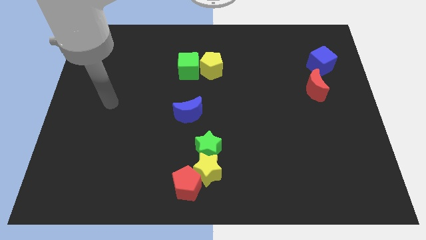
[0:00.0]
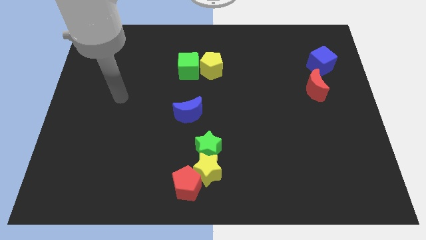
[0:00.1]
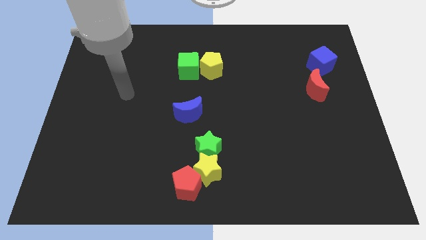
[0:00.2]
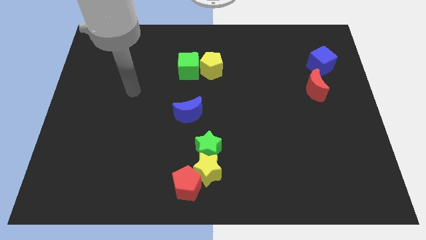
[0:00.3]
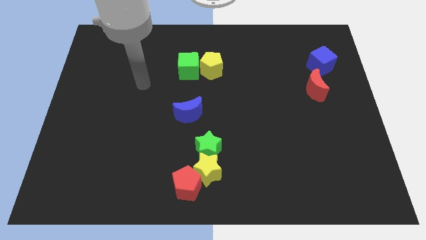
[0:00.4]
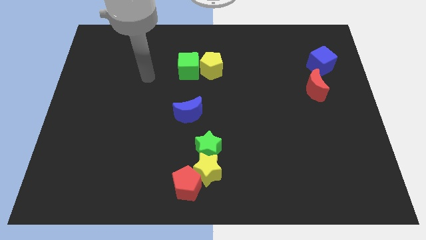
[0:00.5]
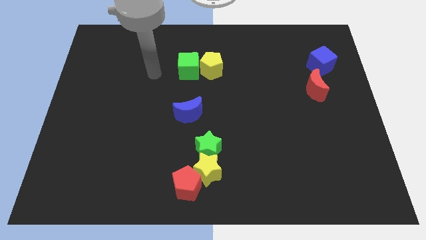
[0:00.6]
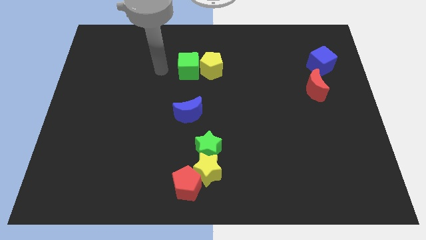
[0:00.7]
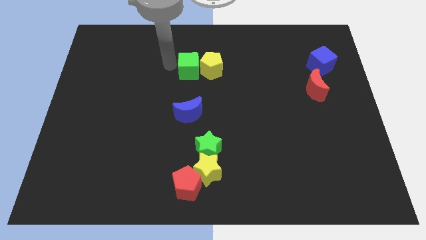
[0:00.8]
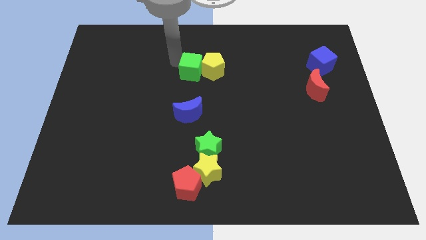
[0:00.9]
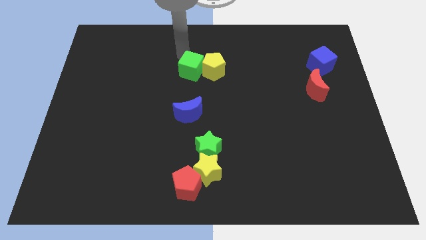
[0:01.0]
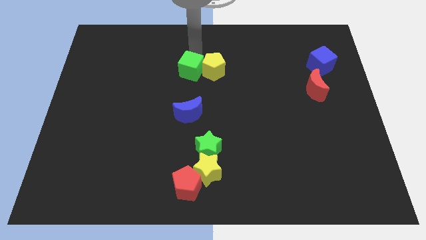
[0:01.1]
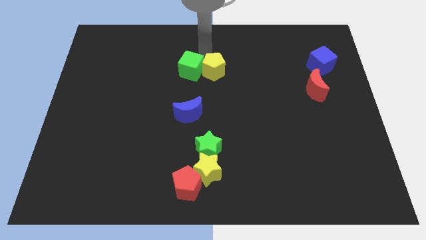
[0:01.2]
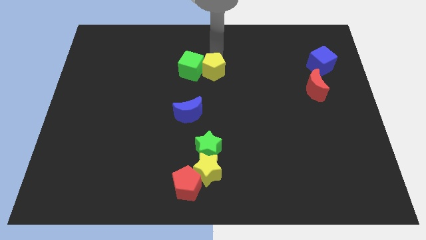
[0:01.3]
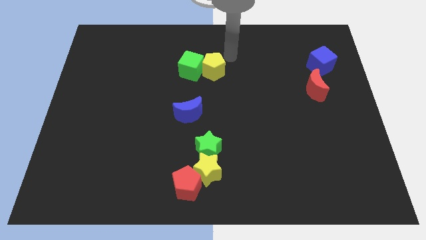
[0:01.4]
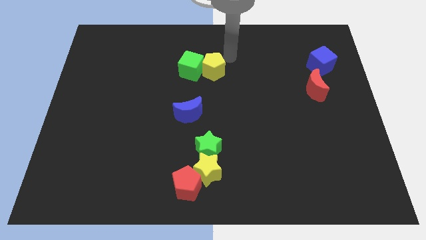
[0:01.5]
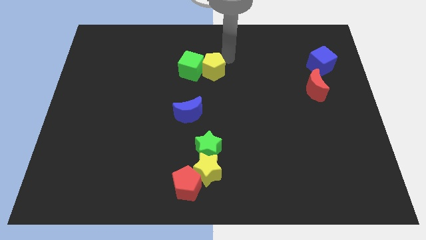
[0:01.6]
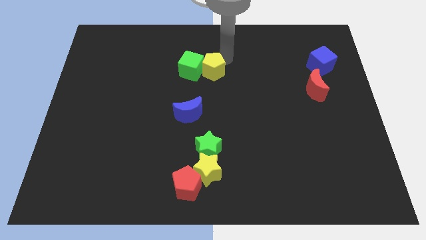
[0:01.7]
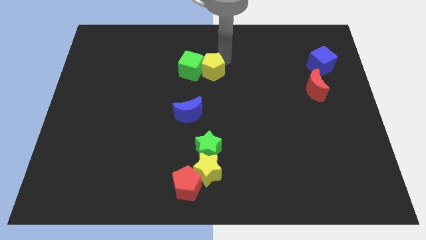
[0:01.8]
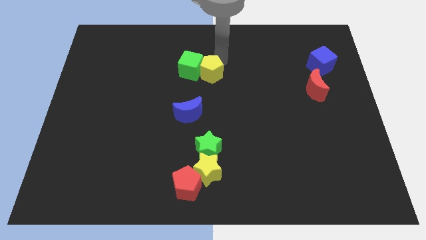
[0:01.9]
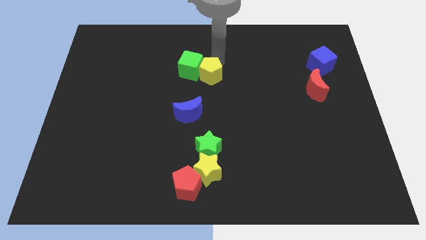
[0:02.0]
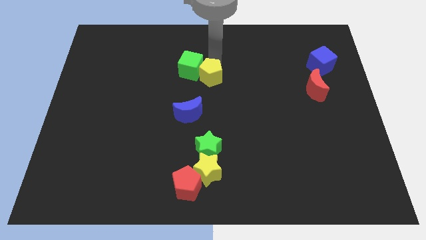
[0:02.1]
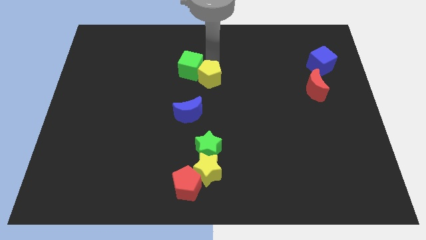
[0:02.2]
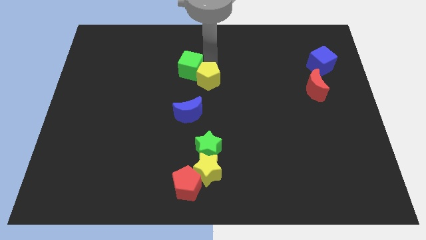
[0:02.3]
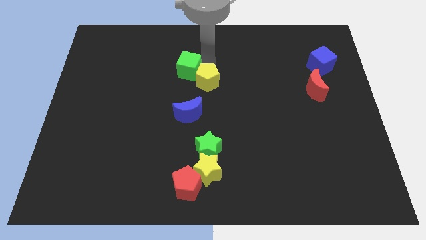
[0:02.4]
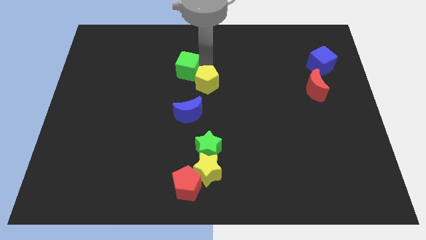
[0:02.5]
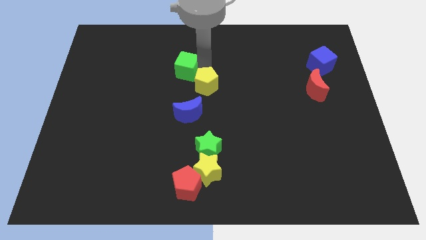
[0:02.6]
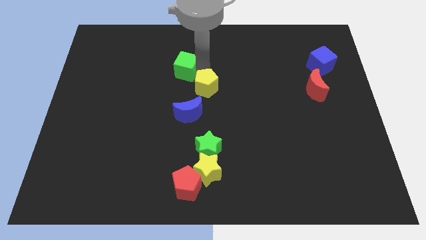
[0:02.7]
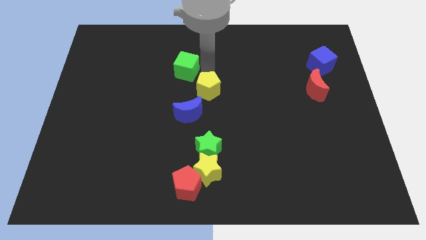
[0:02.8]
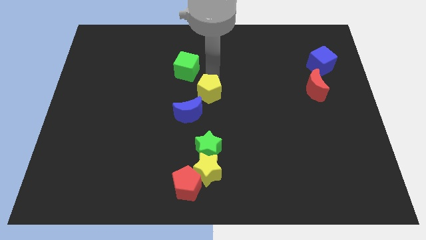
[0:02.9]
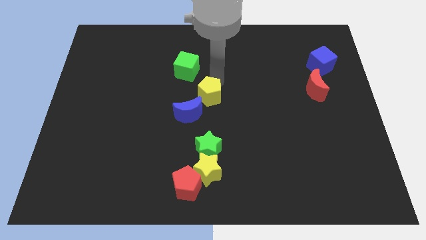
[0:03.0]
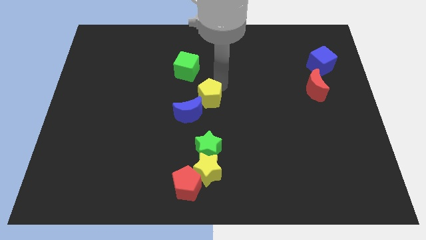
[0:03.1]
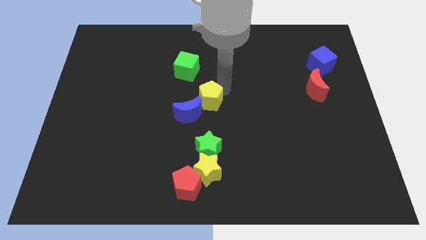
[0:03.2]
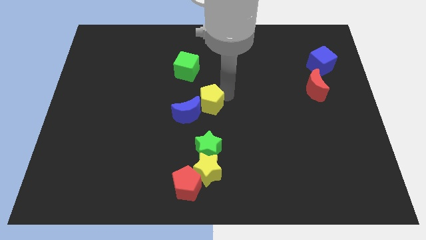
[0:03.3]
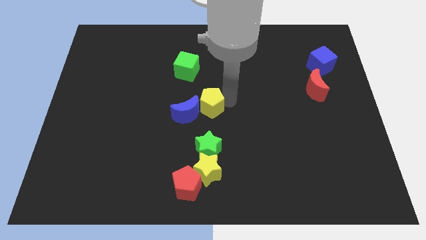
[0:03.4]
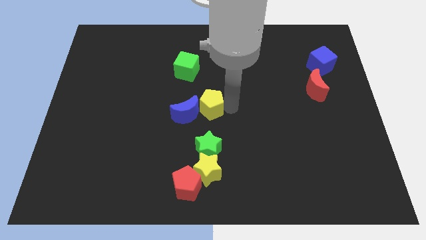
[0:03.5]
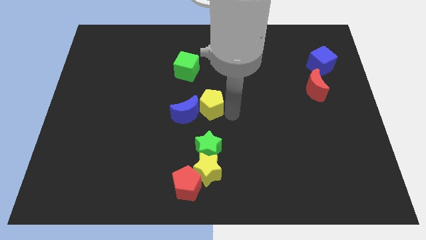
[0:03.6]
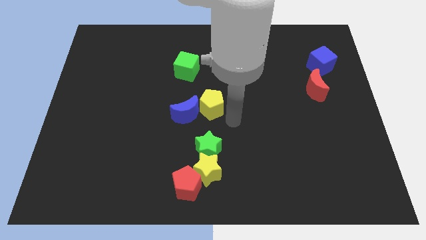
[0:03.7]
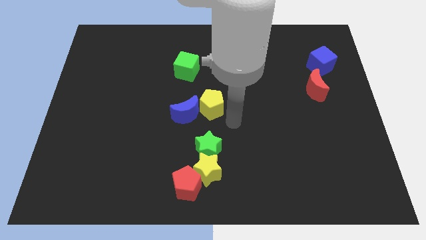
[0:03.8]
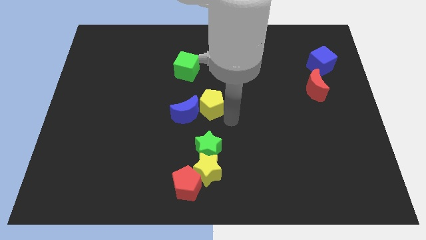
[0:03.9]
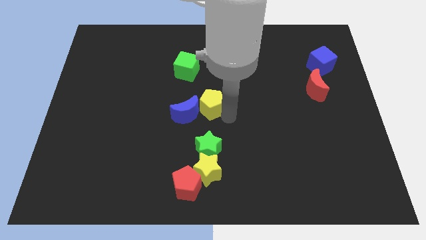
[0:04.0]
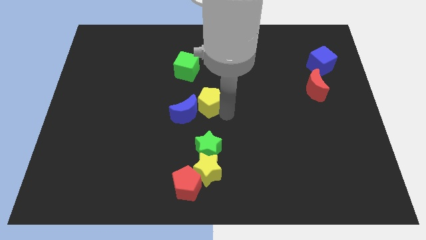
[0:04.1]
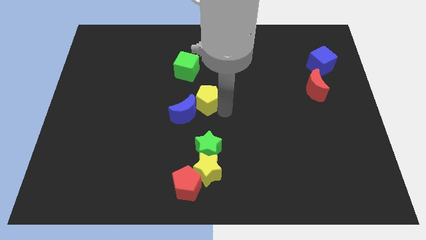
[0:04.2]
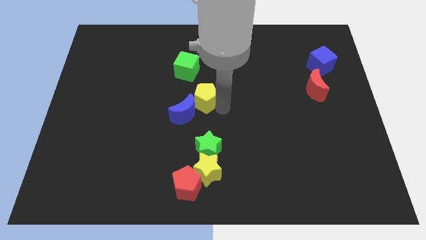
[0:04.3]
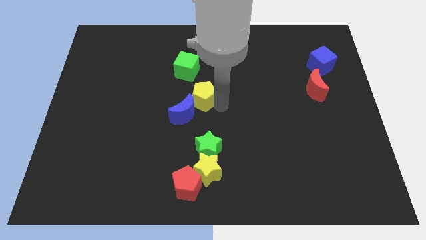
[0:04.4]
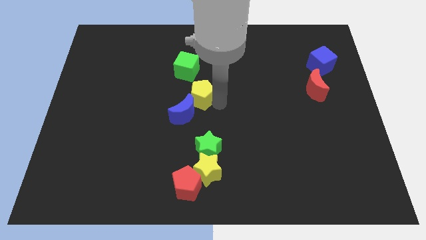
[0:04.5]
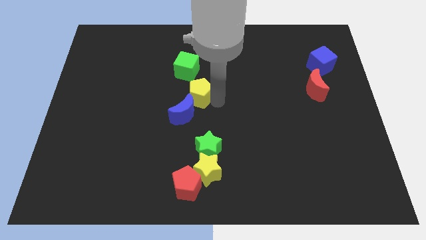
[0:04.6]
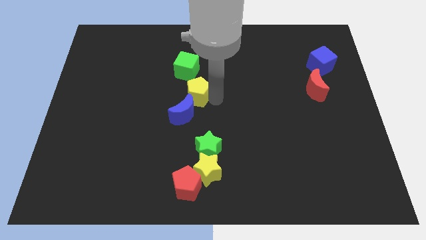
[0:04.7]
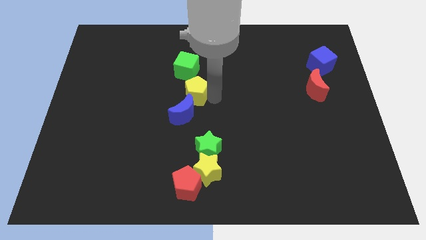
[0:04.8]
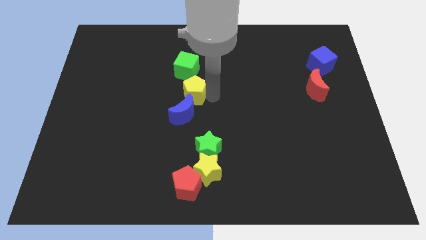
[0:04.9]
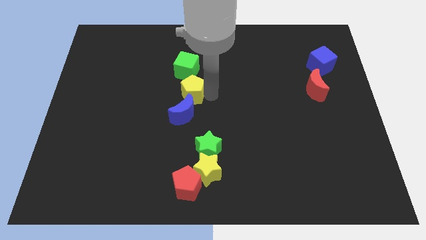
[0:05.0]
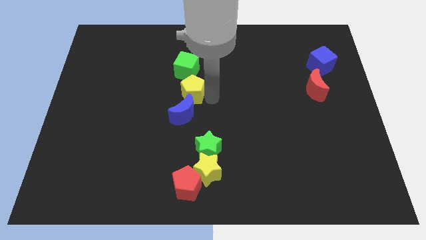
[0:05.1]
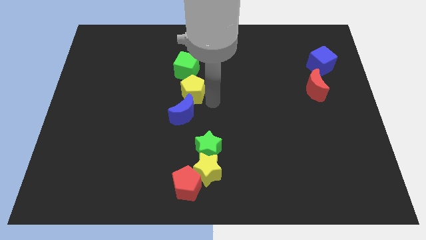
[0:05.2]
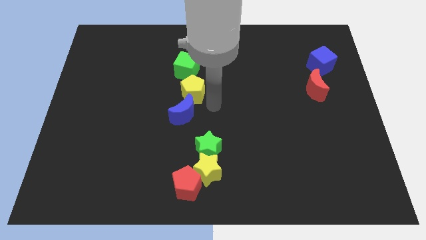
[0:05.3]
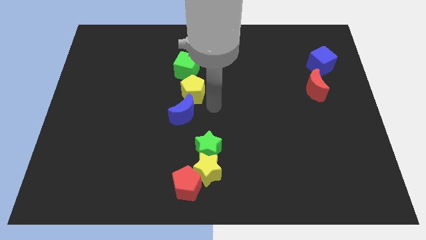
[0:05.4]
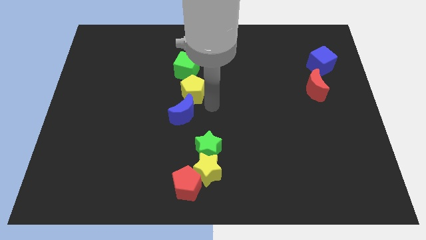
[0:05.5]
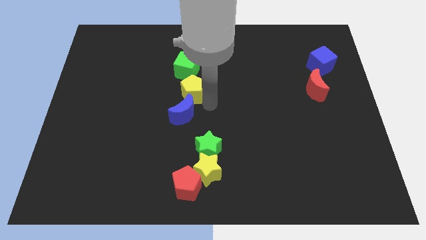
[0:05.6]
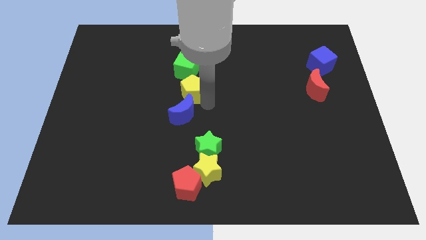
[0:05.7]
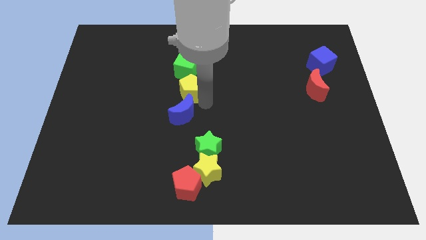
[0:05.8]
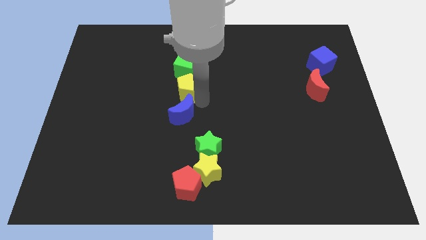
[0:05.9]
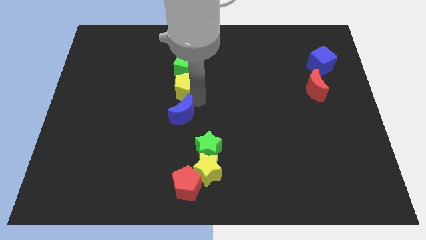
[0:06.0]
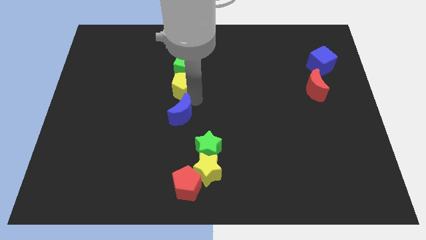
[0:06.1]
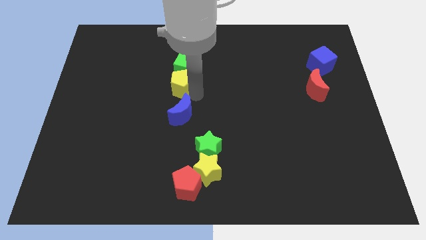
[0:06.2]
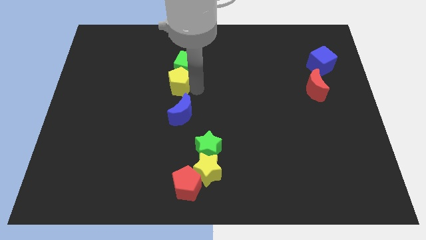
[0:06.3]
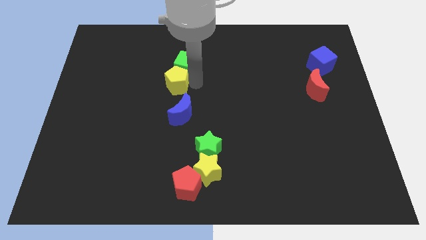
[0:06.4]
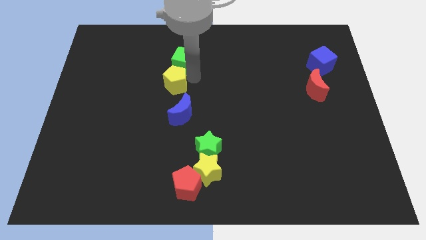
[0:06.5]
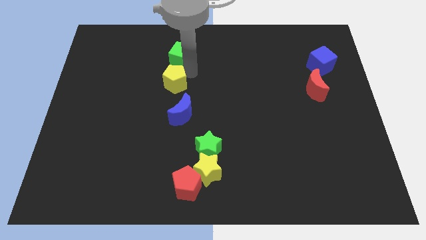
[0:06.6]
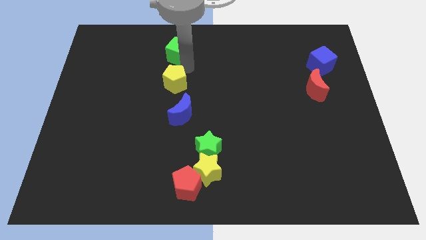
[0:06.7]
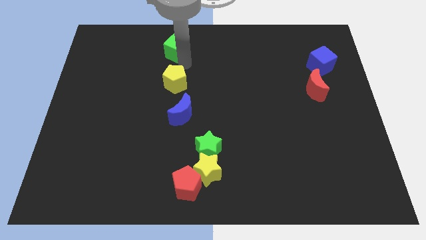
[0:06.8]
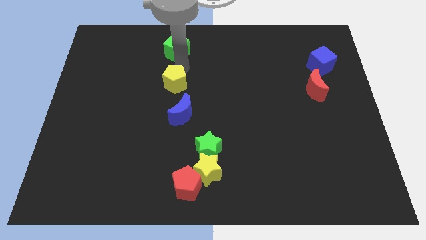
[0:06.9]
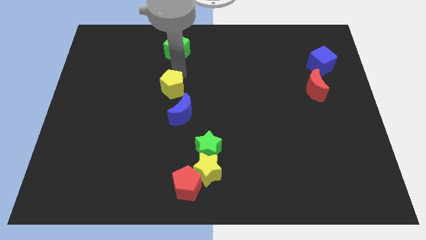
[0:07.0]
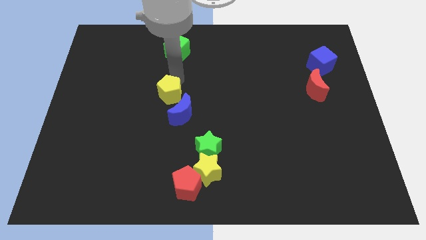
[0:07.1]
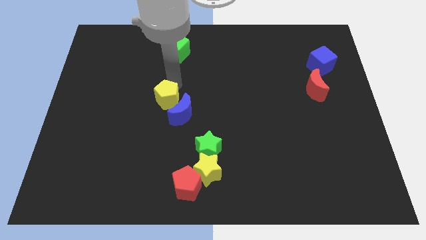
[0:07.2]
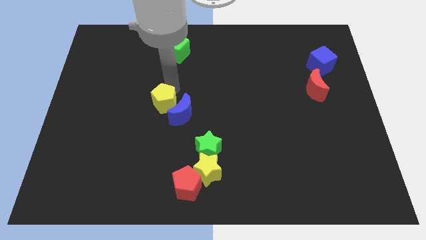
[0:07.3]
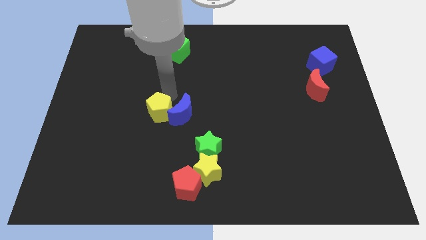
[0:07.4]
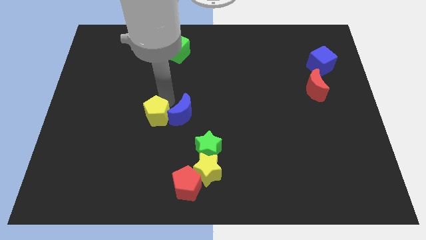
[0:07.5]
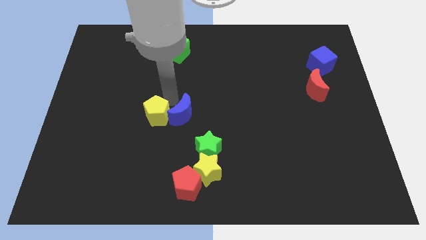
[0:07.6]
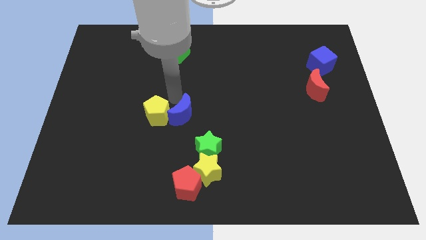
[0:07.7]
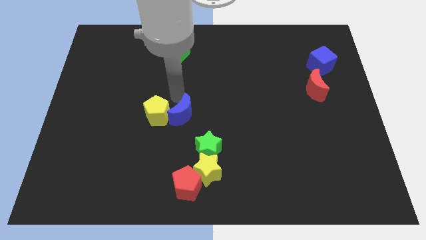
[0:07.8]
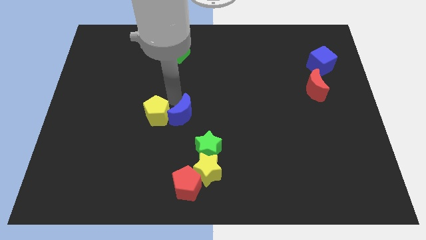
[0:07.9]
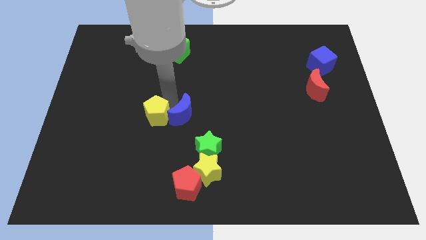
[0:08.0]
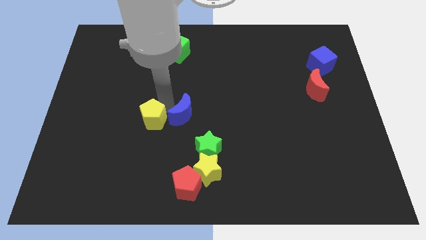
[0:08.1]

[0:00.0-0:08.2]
move the yellow pentagon down and to the left
